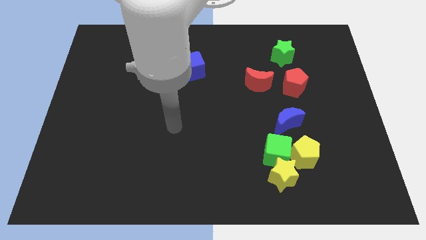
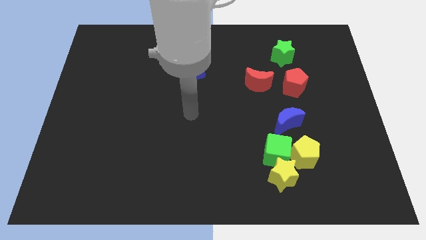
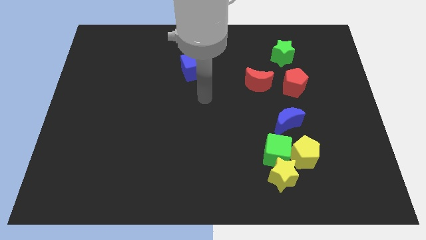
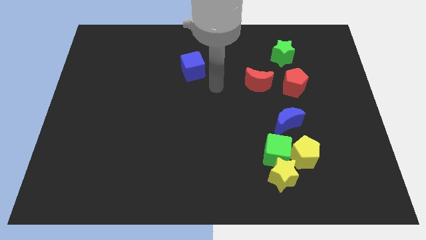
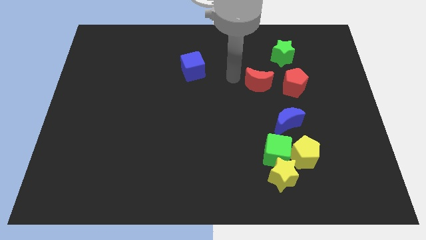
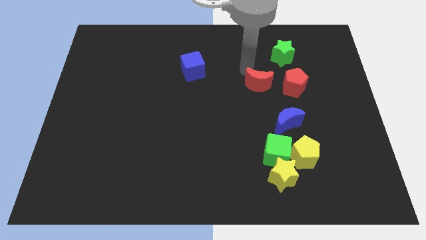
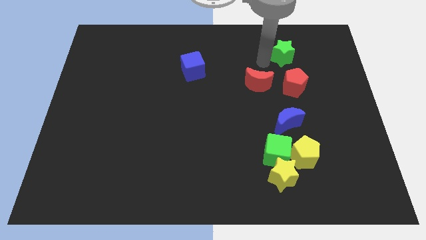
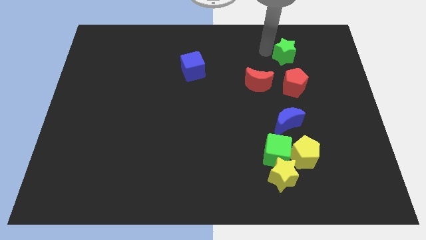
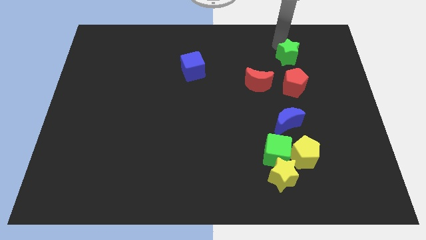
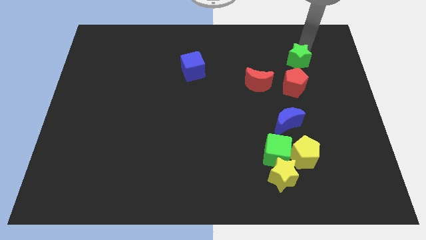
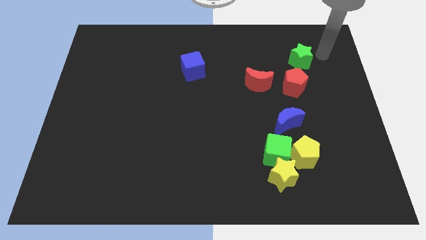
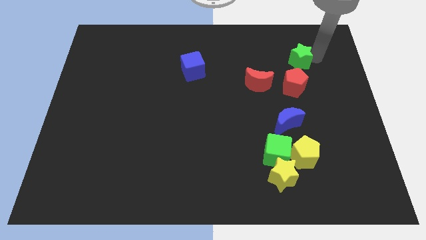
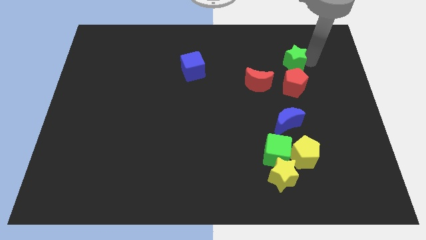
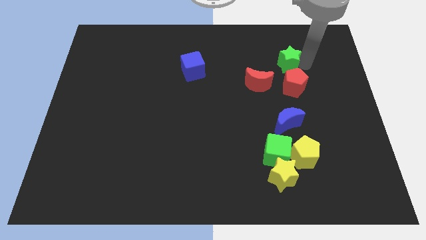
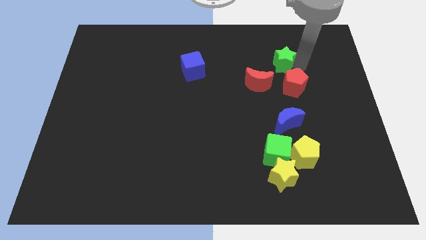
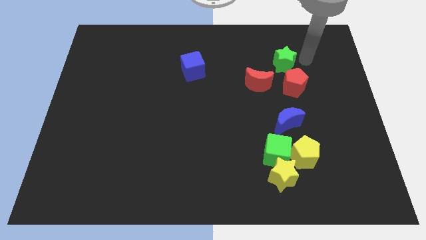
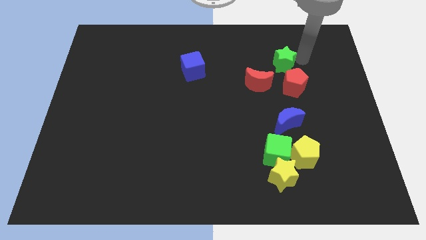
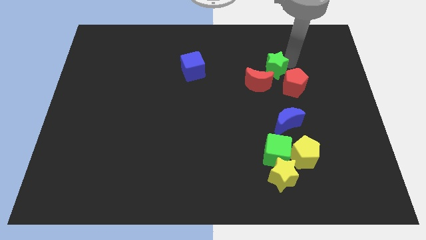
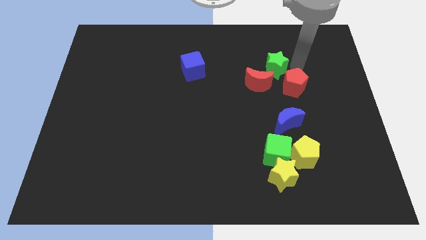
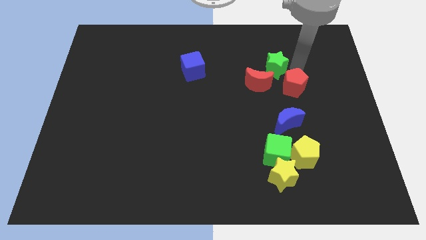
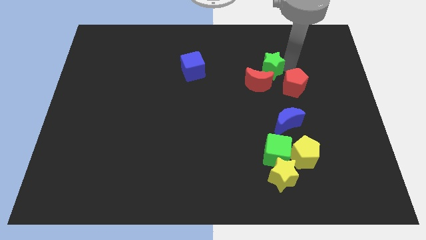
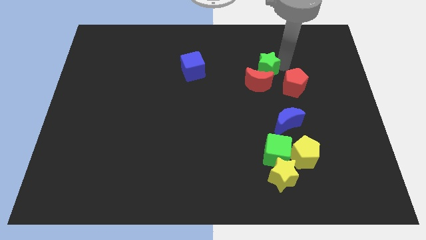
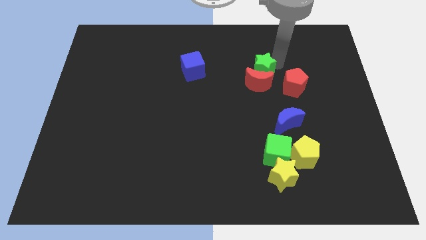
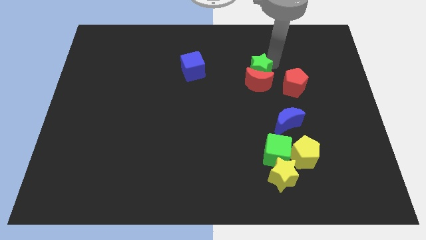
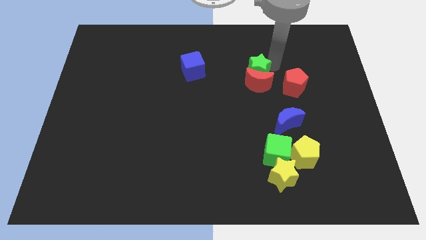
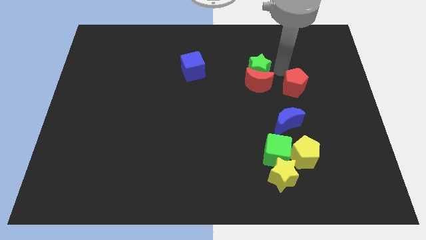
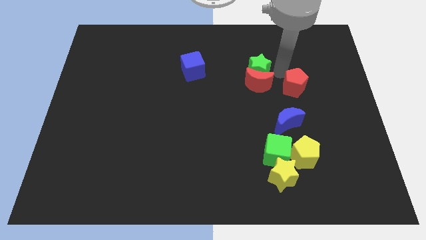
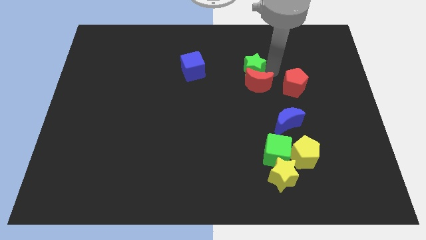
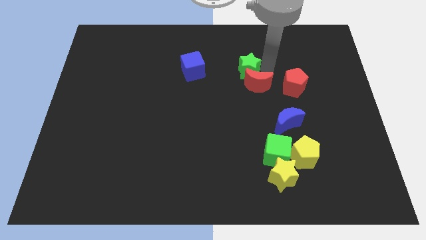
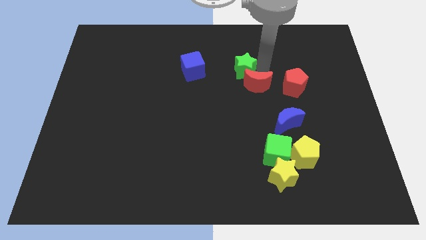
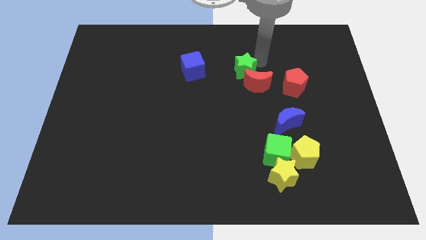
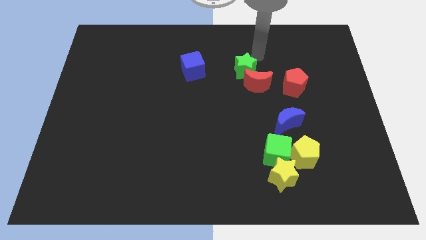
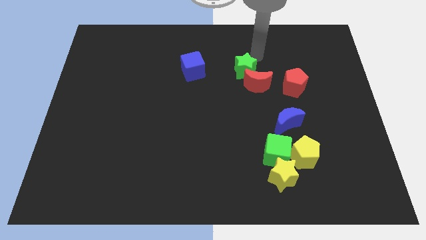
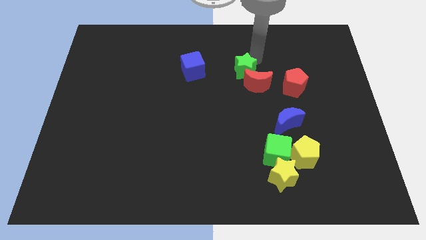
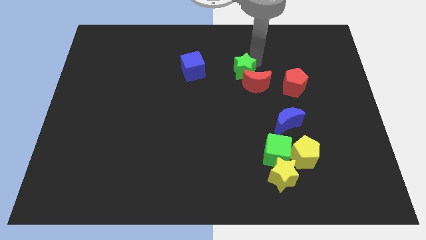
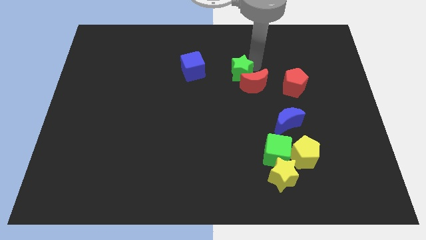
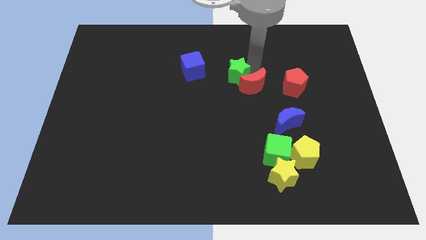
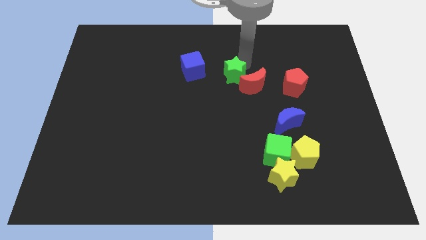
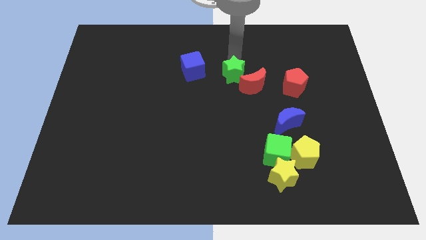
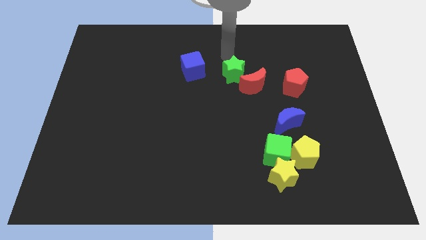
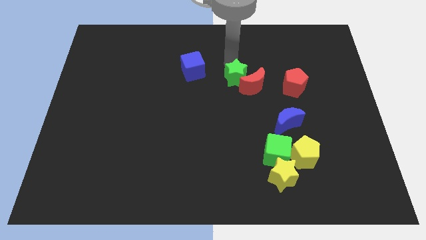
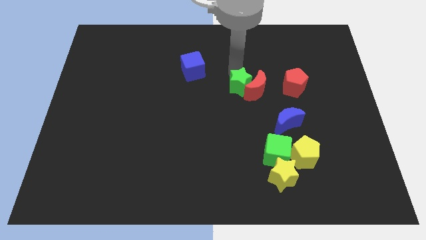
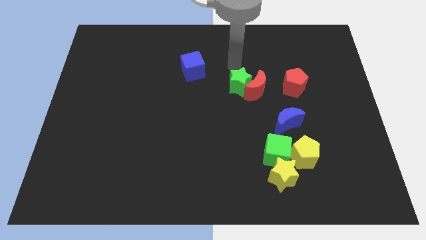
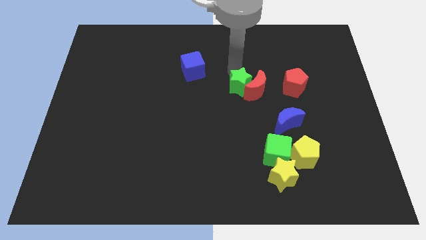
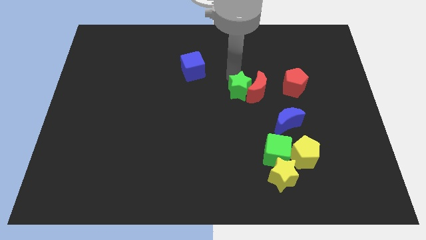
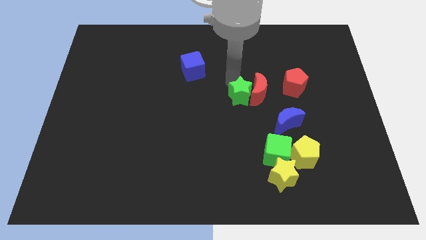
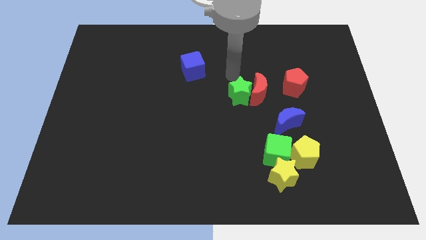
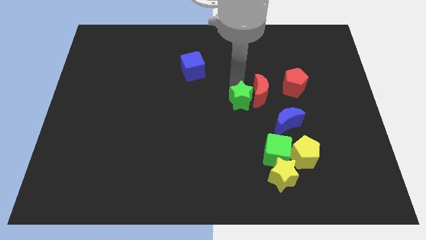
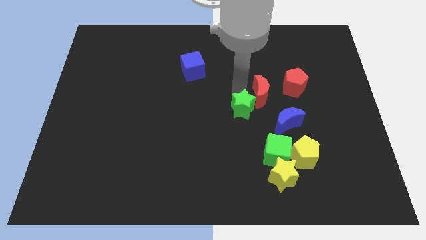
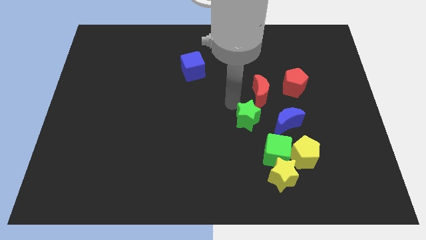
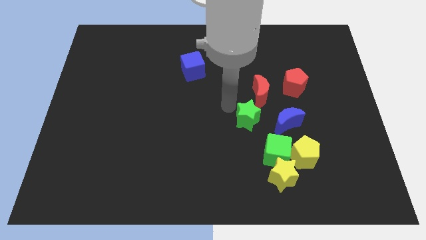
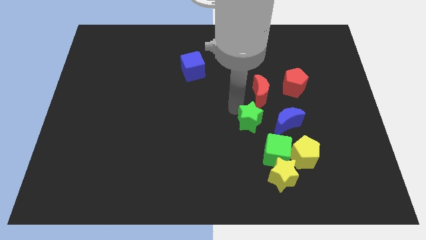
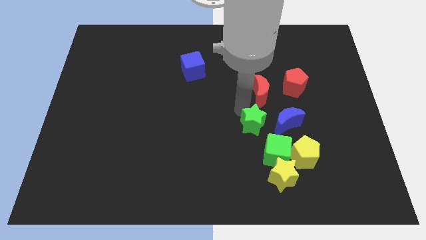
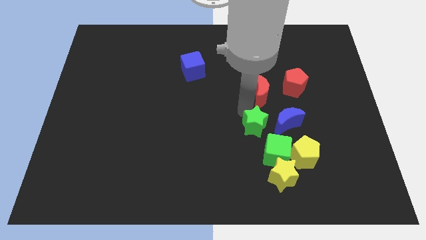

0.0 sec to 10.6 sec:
put the green star to the top side of the yellow star

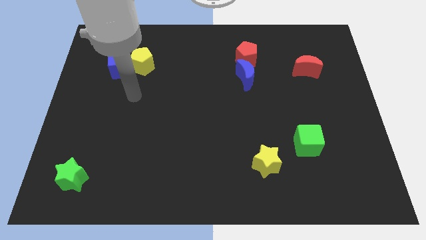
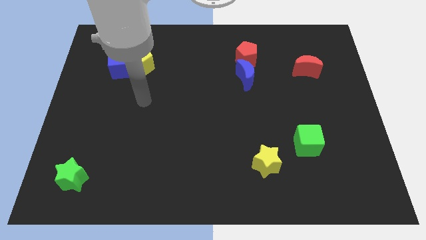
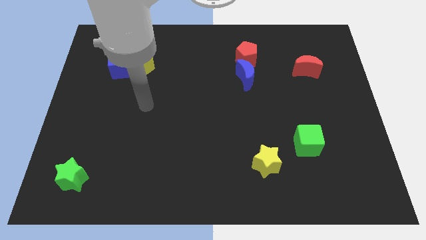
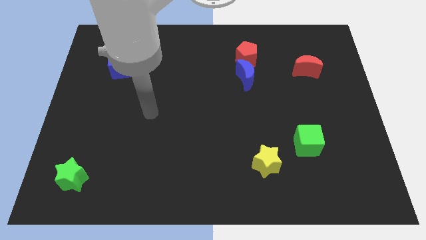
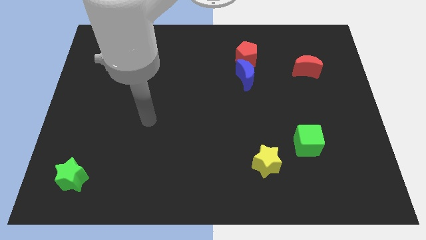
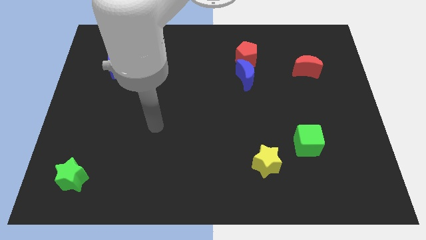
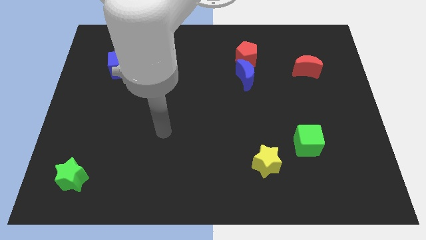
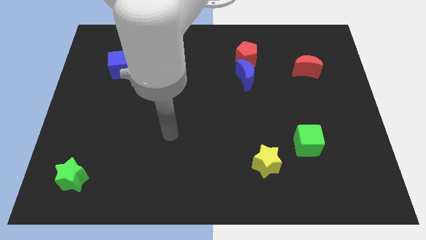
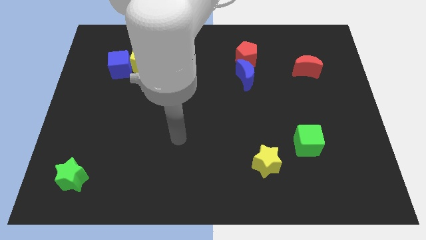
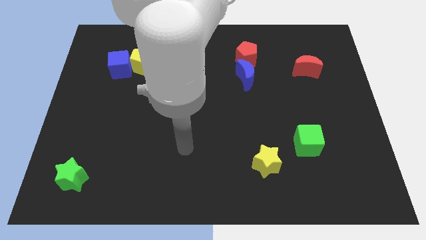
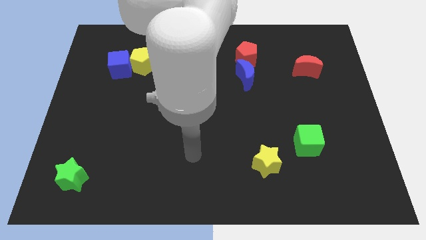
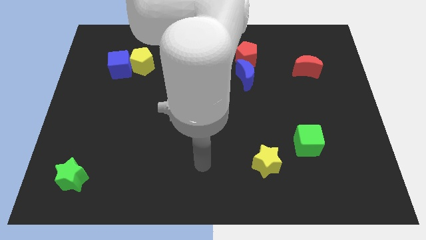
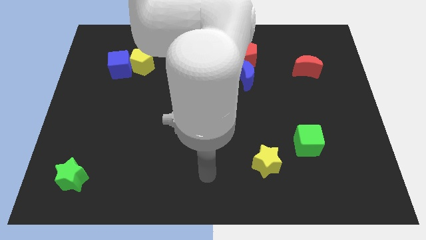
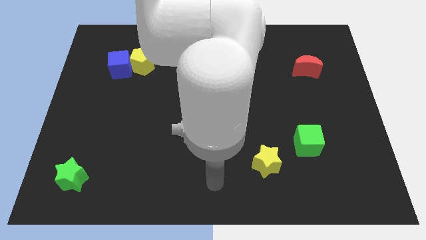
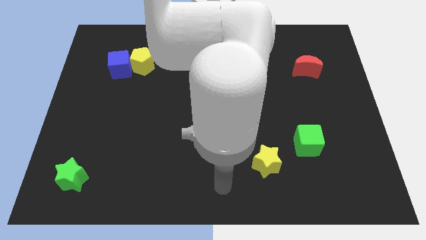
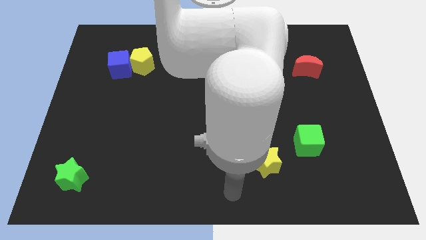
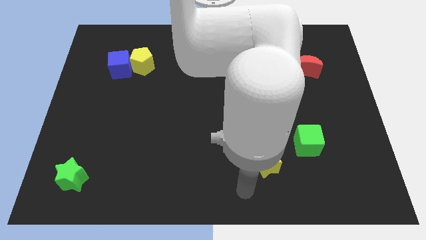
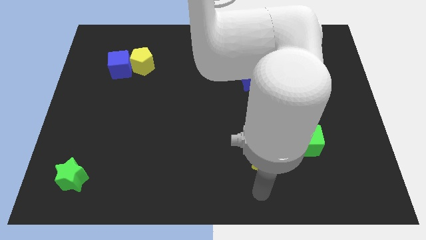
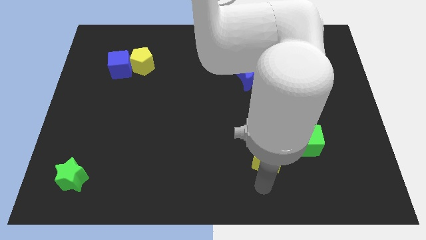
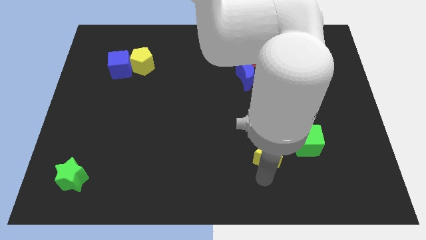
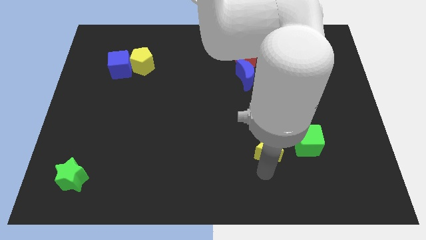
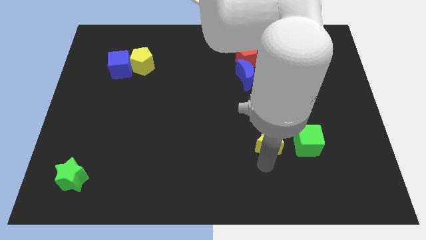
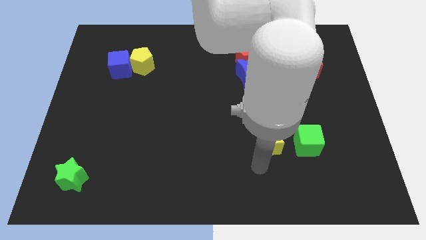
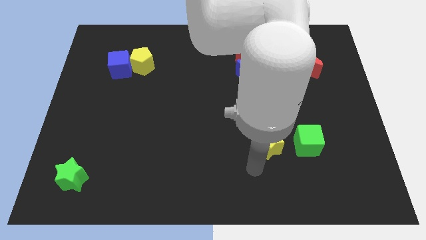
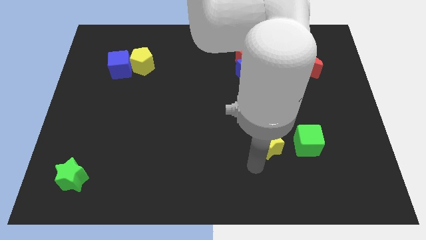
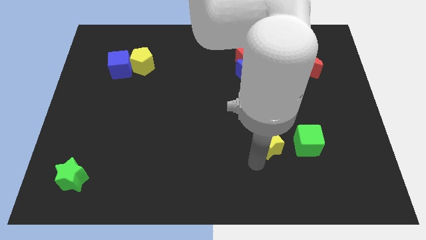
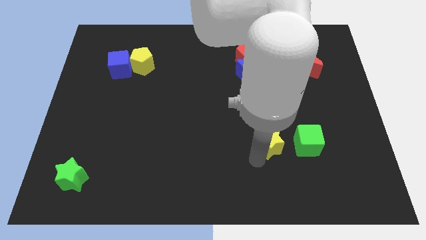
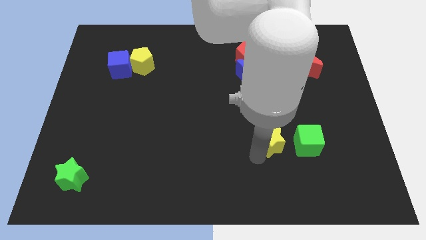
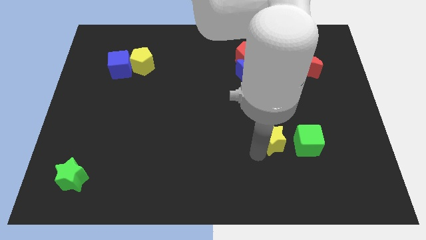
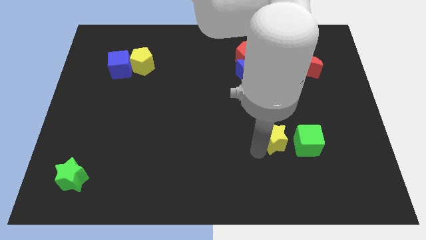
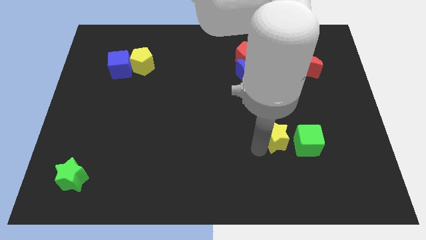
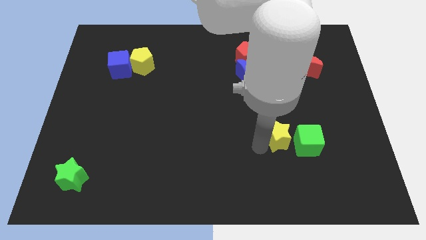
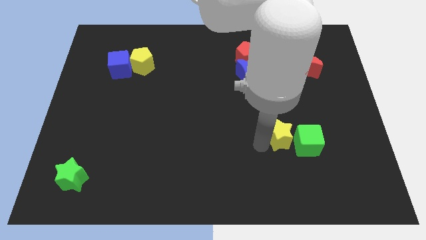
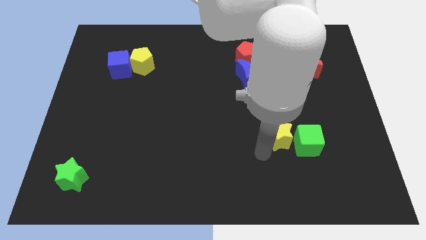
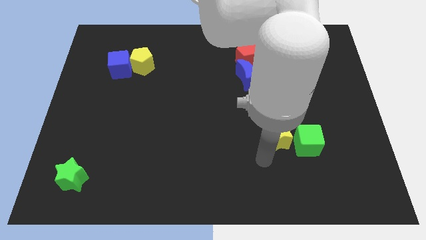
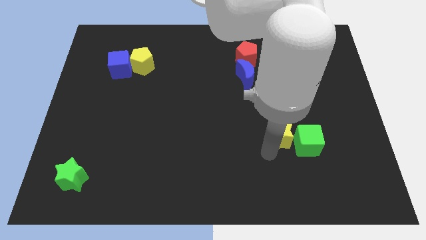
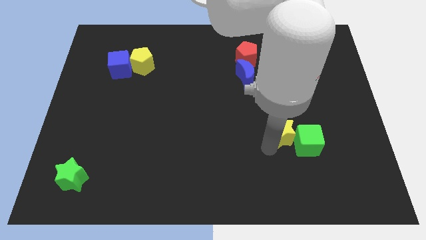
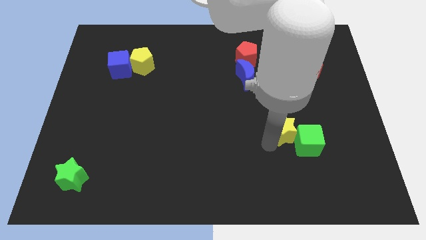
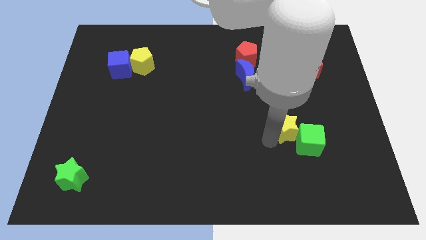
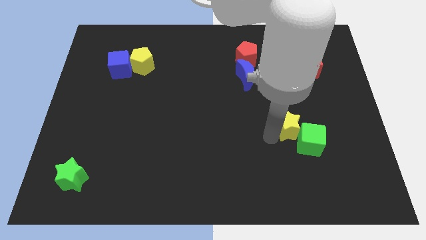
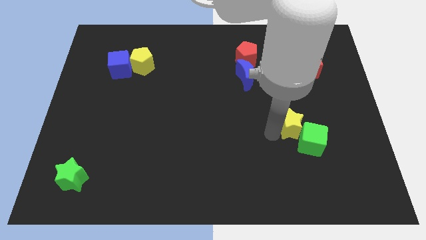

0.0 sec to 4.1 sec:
move the yellow star to the top side of the green cube
